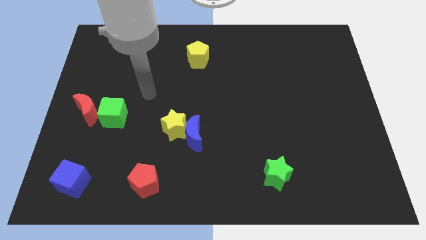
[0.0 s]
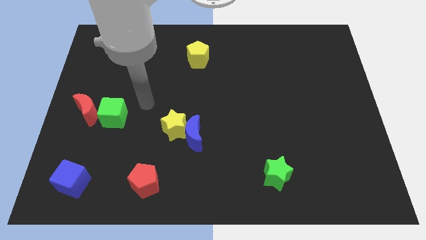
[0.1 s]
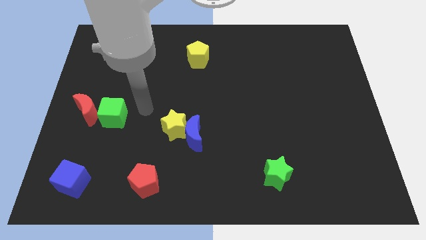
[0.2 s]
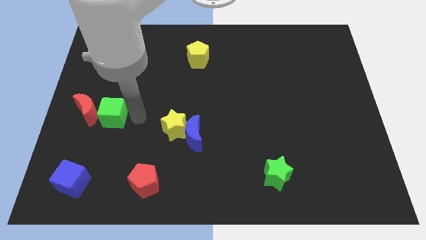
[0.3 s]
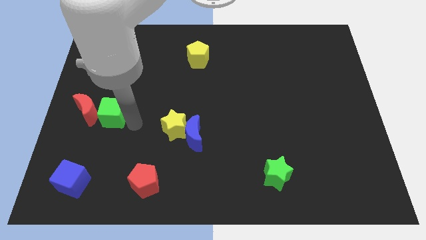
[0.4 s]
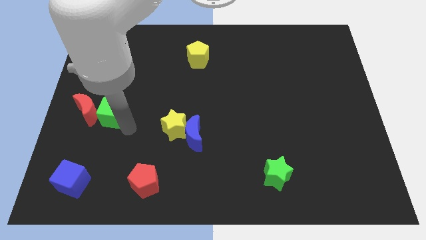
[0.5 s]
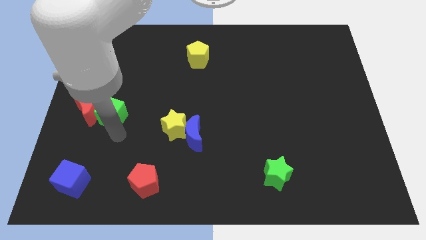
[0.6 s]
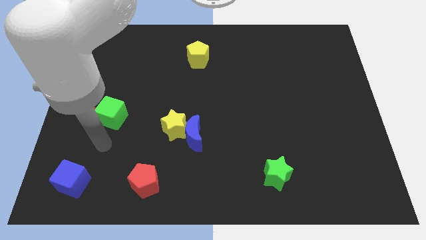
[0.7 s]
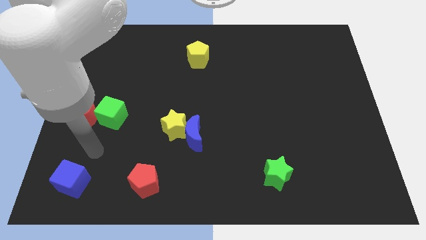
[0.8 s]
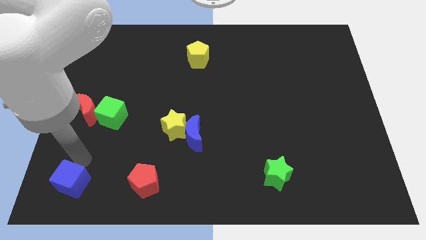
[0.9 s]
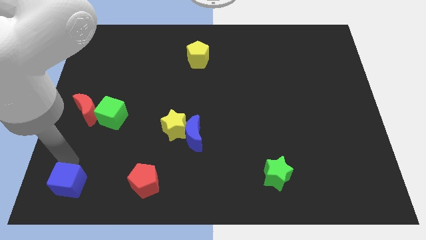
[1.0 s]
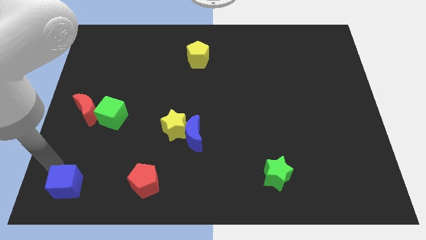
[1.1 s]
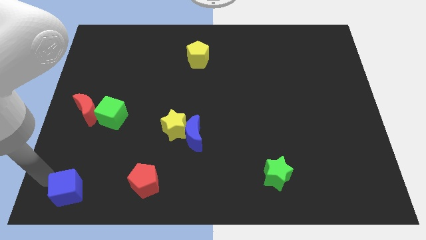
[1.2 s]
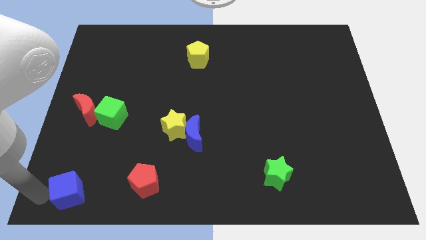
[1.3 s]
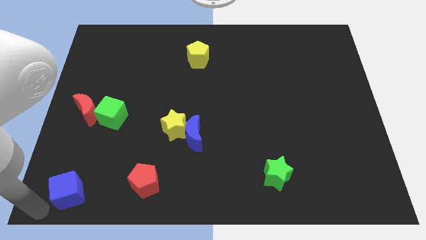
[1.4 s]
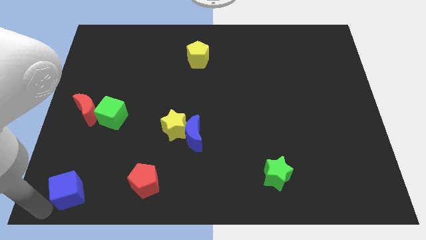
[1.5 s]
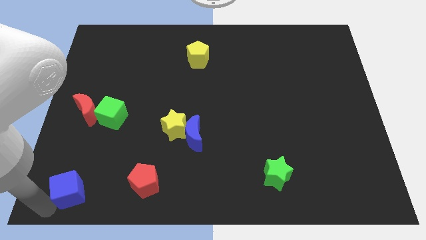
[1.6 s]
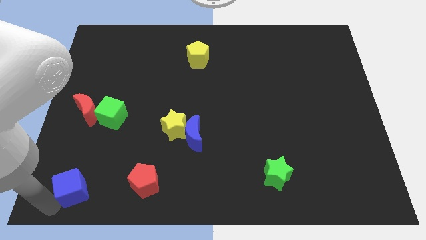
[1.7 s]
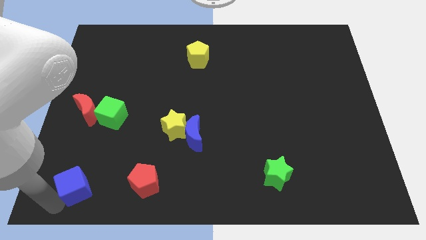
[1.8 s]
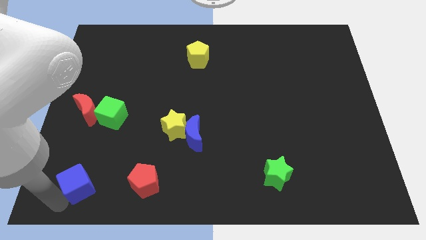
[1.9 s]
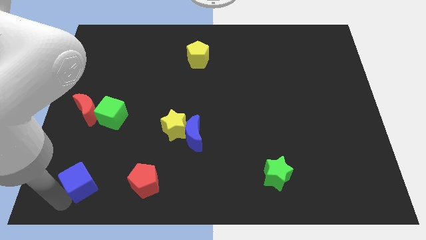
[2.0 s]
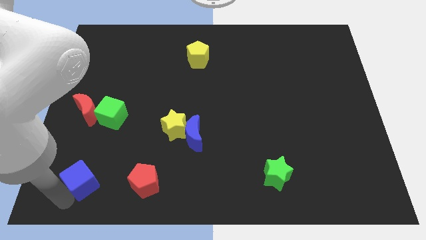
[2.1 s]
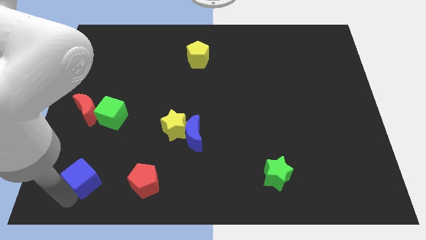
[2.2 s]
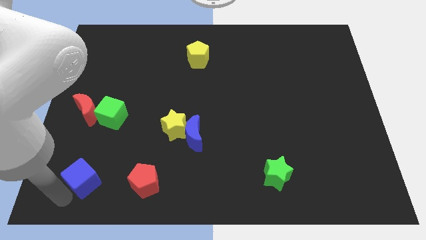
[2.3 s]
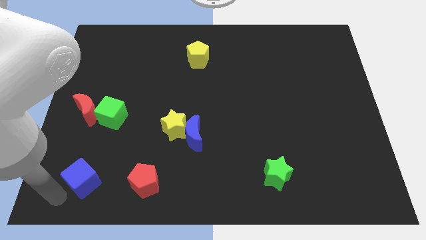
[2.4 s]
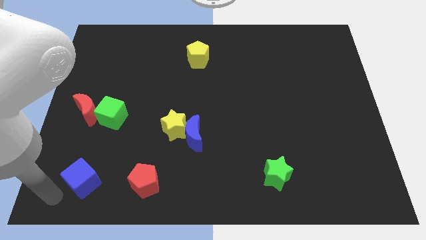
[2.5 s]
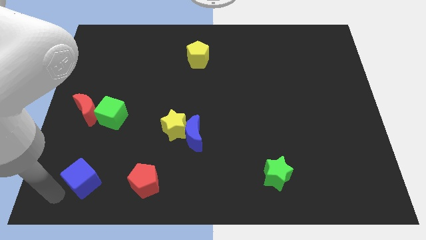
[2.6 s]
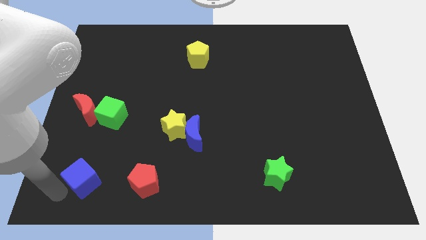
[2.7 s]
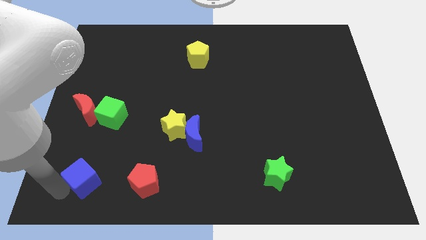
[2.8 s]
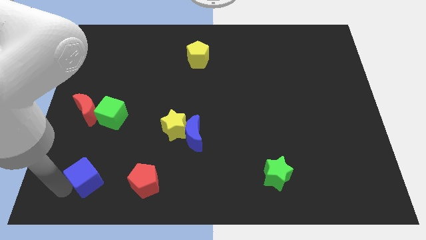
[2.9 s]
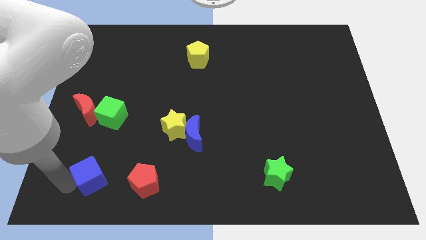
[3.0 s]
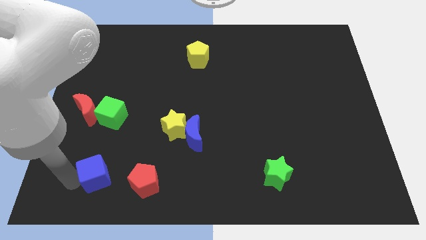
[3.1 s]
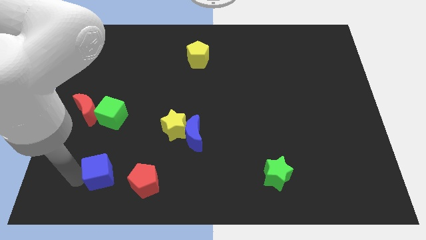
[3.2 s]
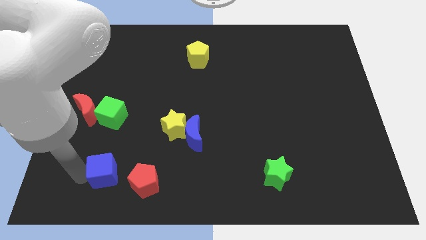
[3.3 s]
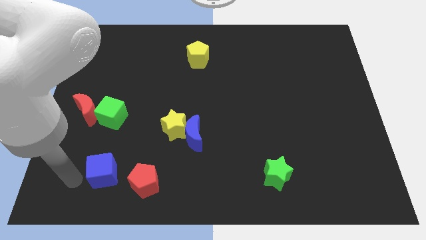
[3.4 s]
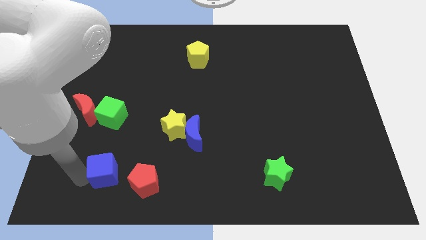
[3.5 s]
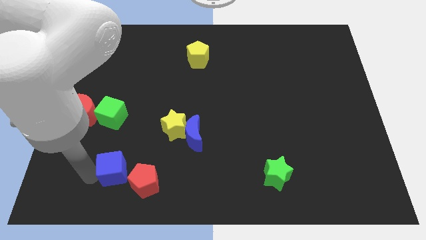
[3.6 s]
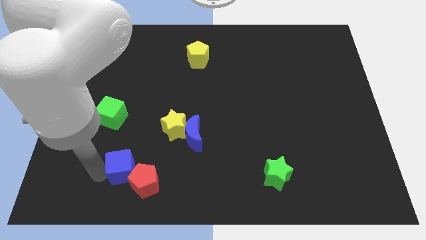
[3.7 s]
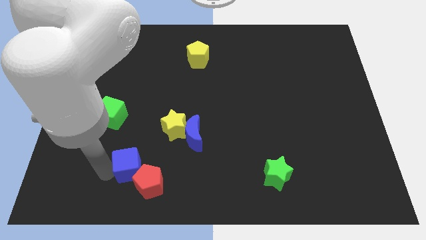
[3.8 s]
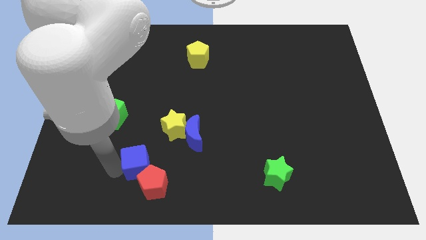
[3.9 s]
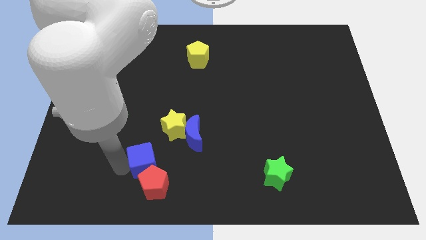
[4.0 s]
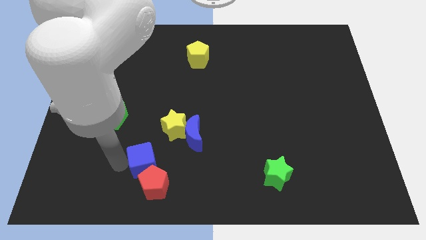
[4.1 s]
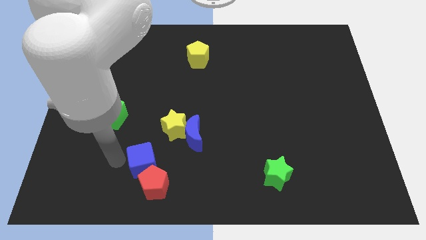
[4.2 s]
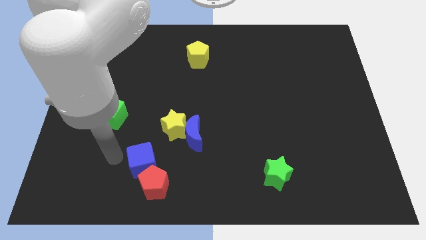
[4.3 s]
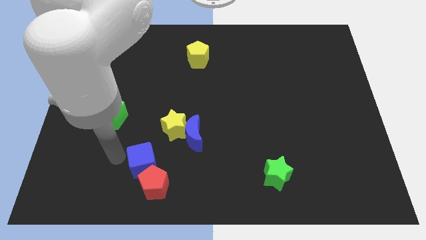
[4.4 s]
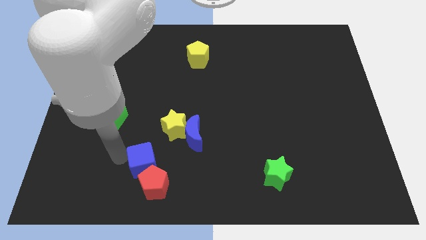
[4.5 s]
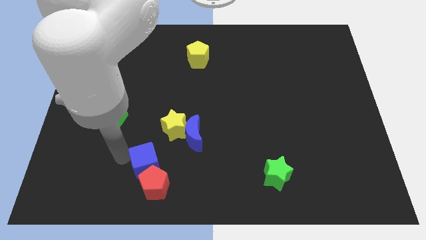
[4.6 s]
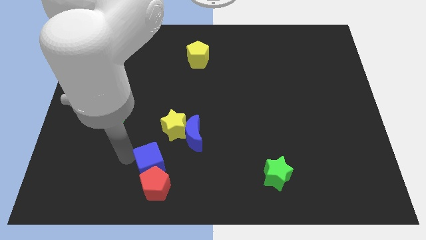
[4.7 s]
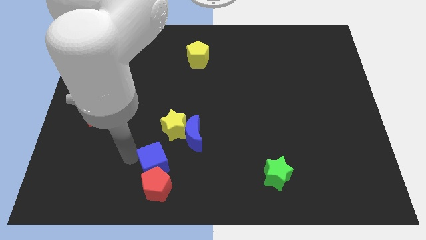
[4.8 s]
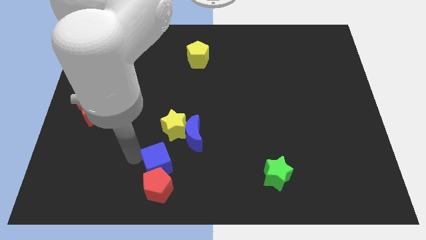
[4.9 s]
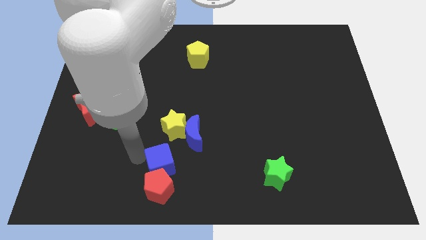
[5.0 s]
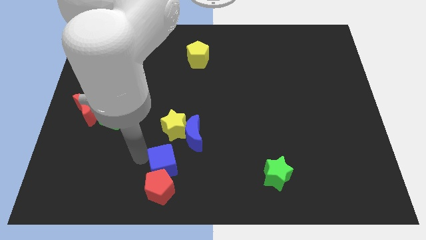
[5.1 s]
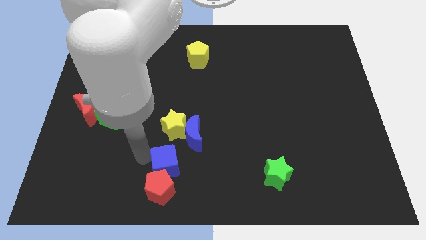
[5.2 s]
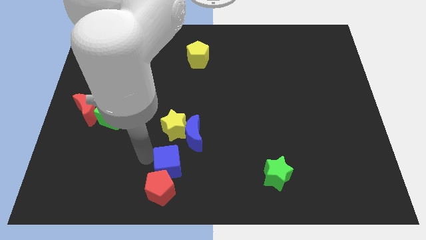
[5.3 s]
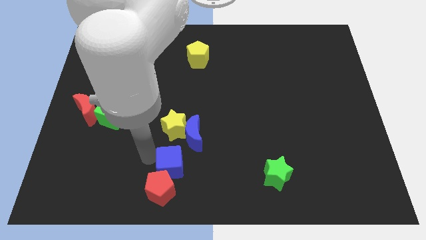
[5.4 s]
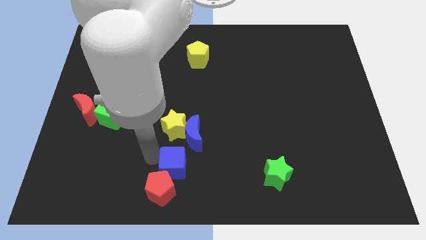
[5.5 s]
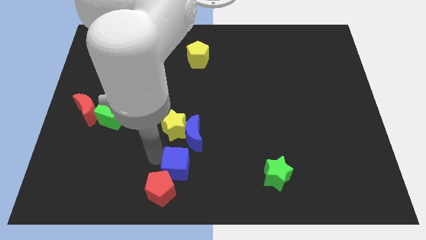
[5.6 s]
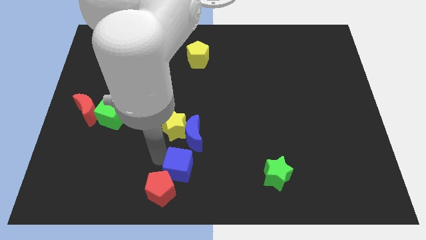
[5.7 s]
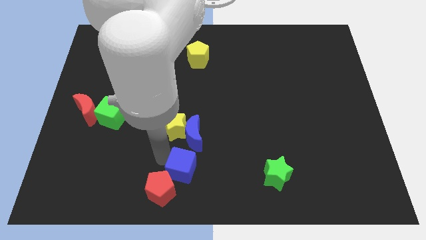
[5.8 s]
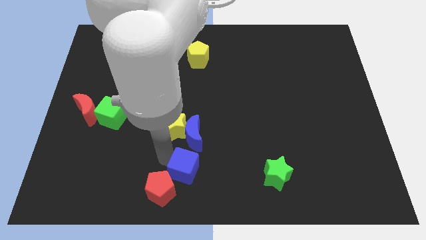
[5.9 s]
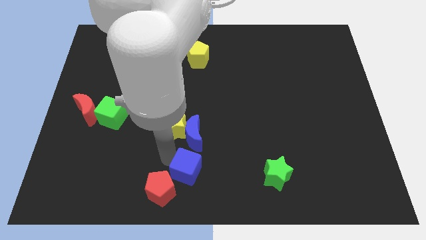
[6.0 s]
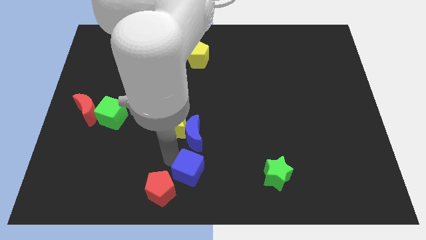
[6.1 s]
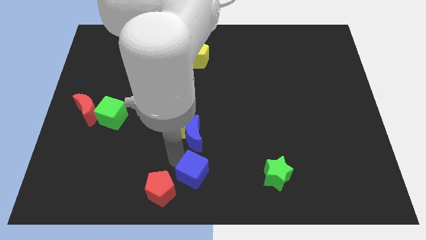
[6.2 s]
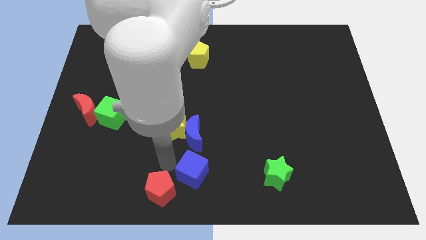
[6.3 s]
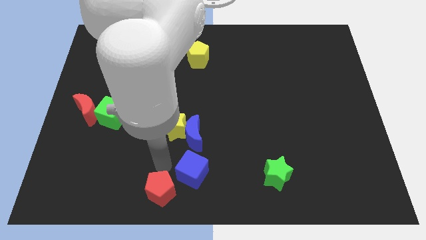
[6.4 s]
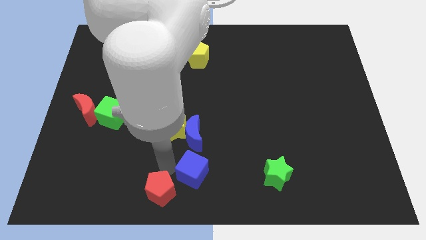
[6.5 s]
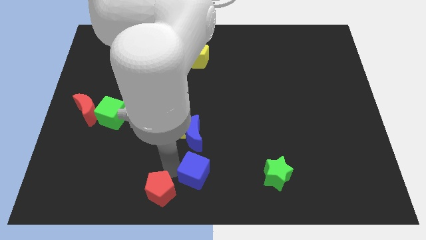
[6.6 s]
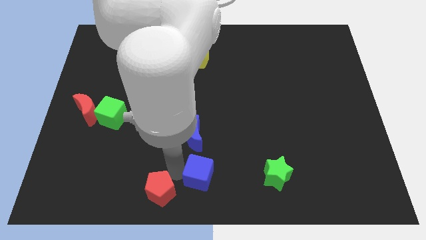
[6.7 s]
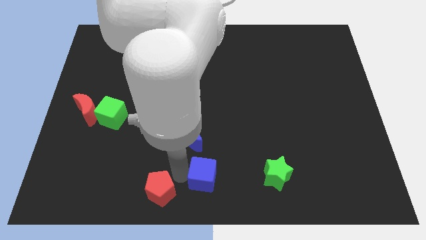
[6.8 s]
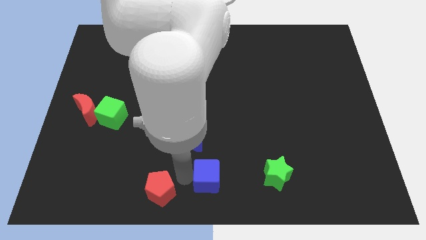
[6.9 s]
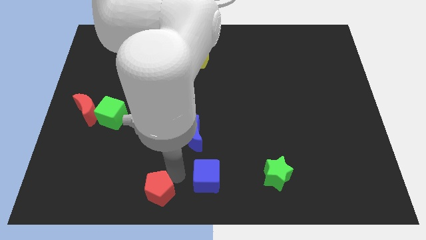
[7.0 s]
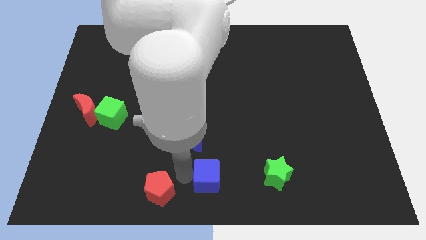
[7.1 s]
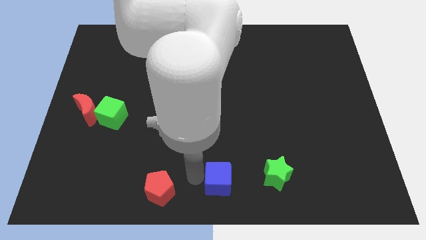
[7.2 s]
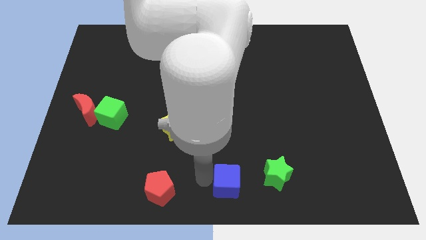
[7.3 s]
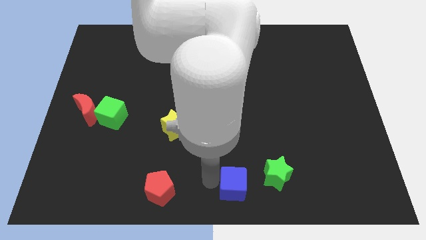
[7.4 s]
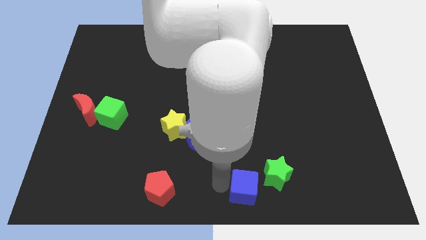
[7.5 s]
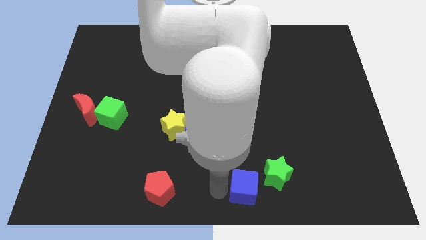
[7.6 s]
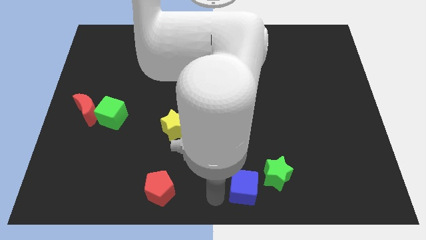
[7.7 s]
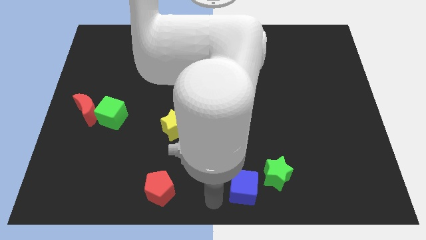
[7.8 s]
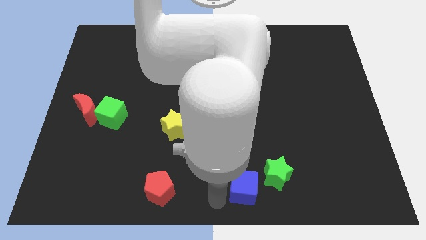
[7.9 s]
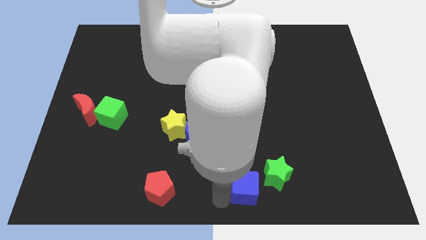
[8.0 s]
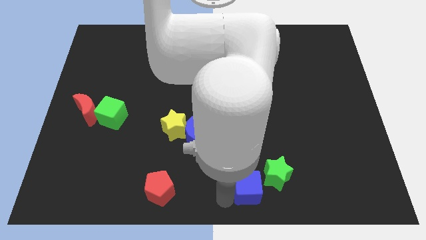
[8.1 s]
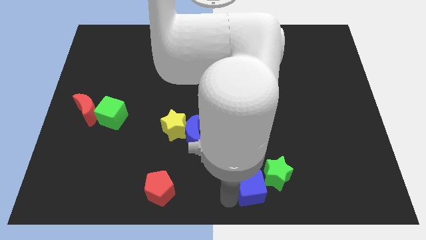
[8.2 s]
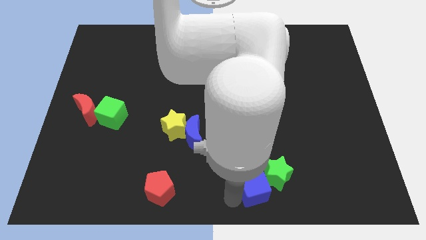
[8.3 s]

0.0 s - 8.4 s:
move the blue cube close to the green star
